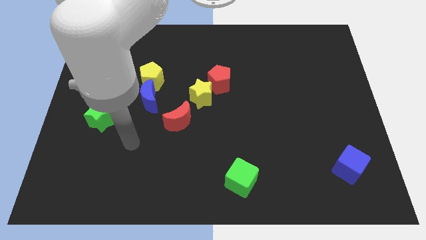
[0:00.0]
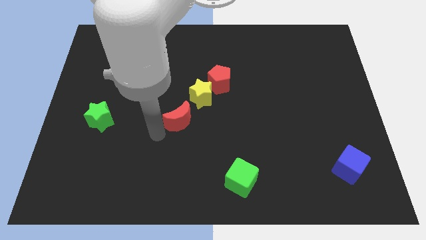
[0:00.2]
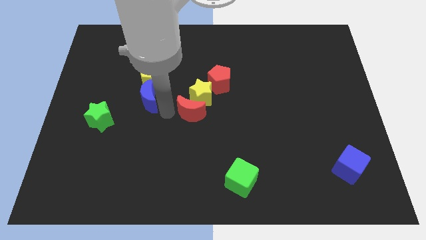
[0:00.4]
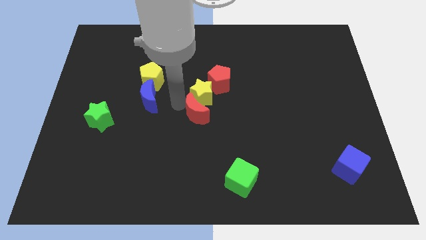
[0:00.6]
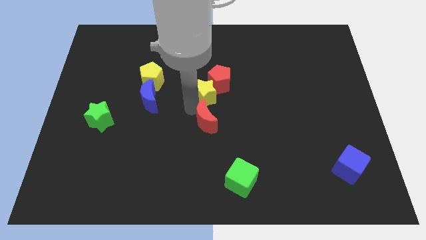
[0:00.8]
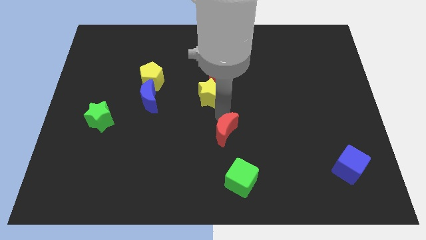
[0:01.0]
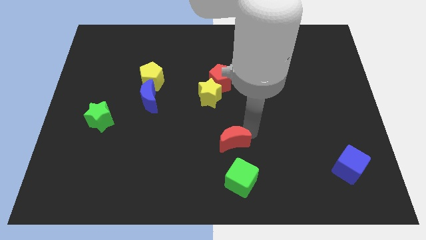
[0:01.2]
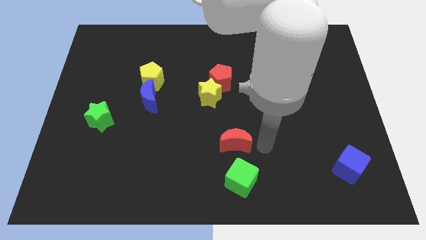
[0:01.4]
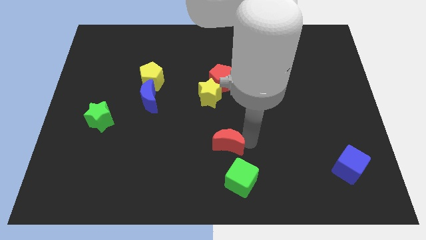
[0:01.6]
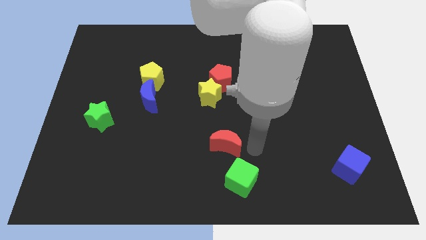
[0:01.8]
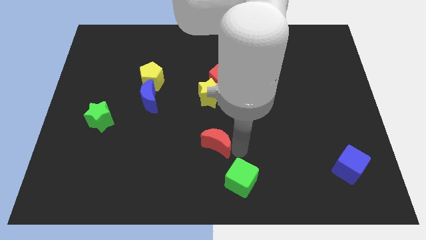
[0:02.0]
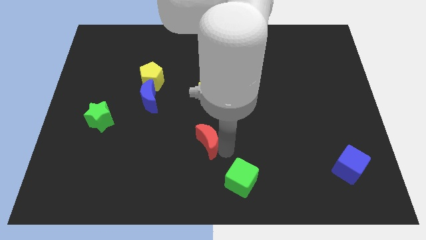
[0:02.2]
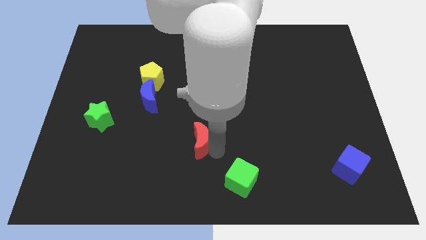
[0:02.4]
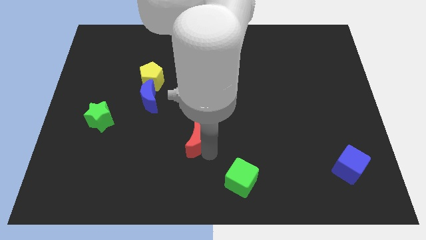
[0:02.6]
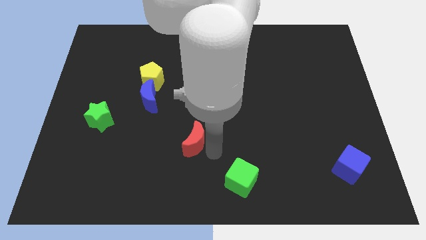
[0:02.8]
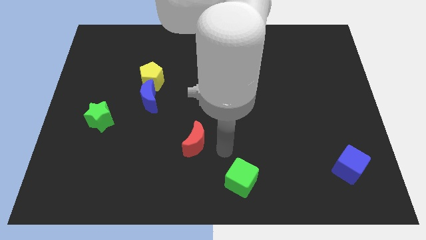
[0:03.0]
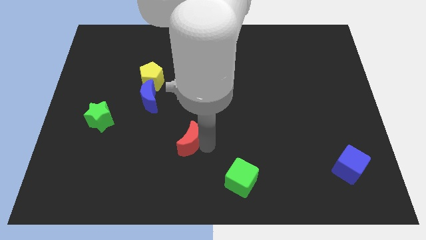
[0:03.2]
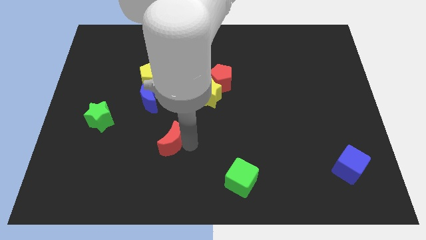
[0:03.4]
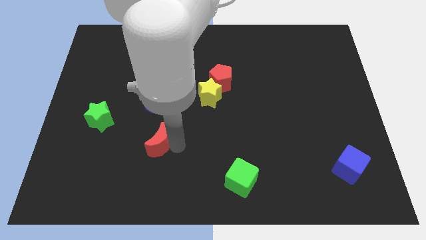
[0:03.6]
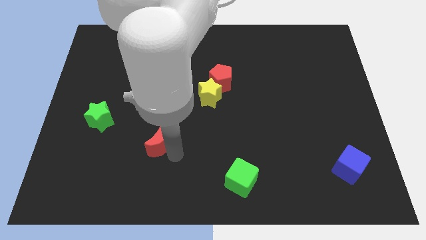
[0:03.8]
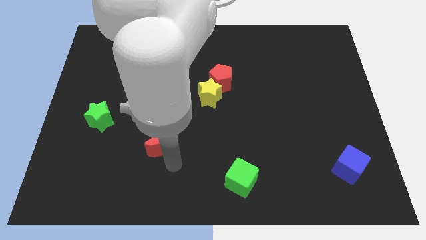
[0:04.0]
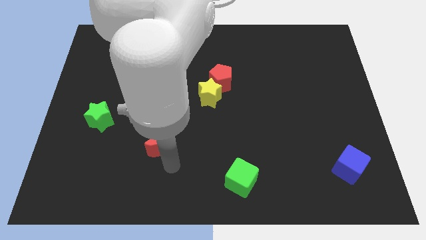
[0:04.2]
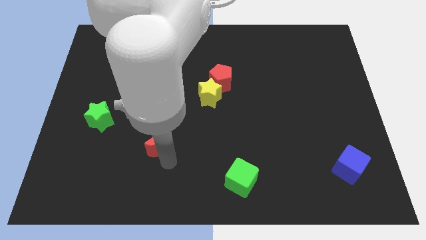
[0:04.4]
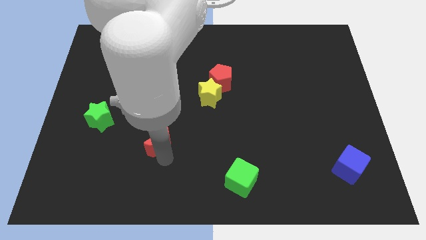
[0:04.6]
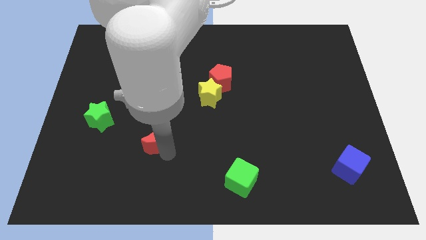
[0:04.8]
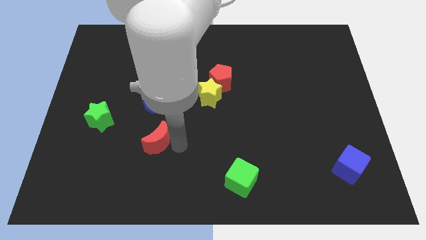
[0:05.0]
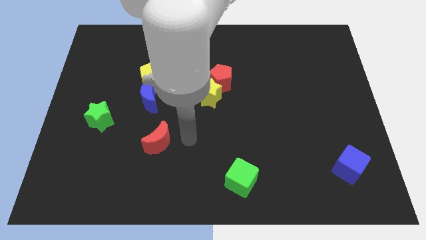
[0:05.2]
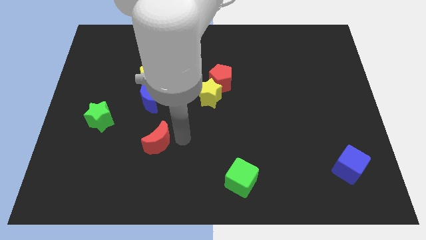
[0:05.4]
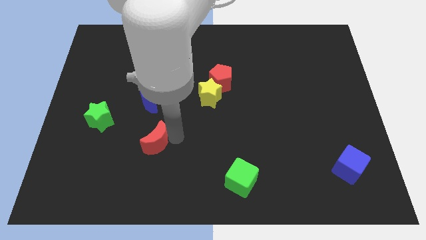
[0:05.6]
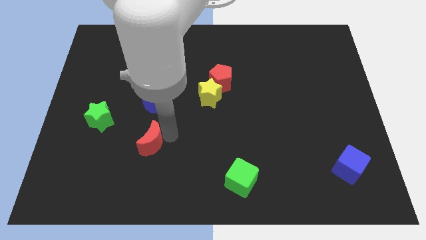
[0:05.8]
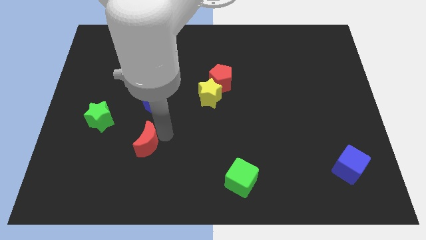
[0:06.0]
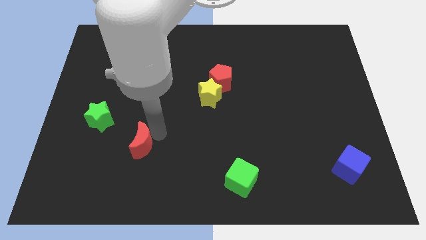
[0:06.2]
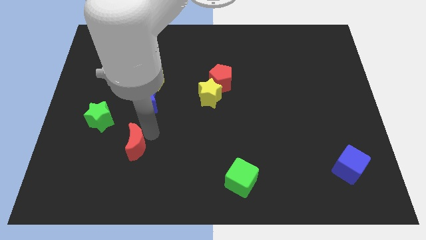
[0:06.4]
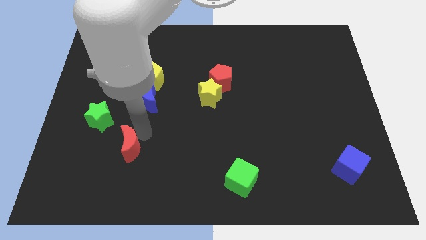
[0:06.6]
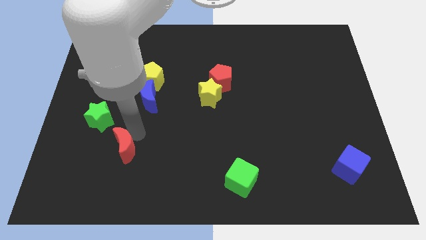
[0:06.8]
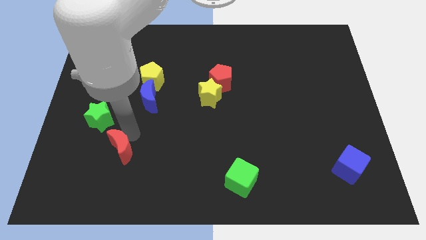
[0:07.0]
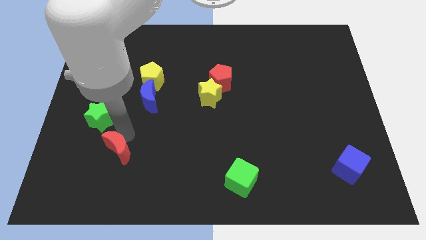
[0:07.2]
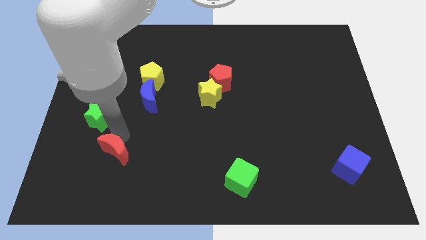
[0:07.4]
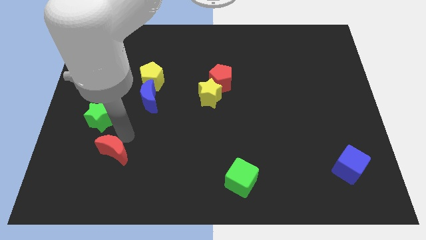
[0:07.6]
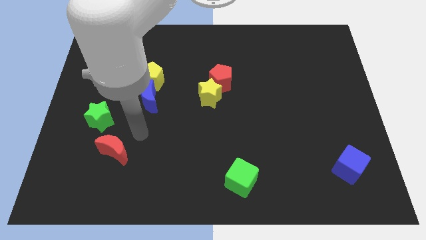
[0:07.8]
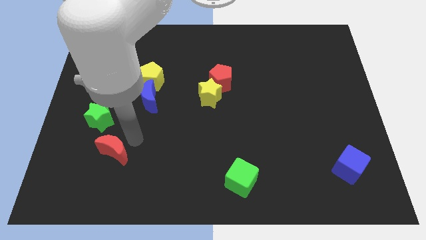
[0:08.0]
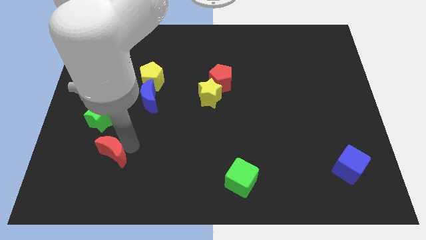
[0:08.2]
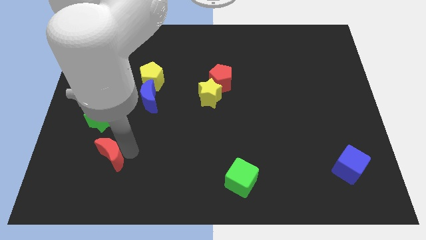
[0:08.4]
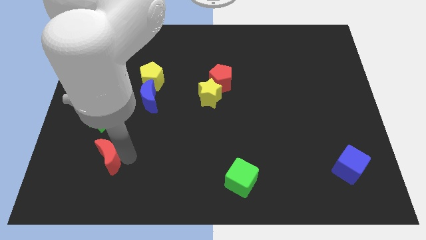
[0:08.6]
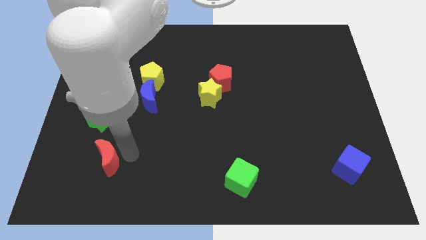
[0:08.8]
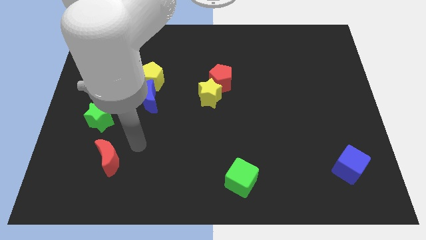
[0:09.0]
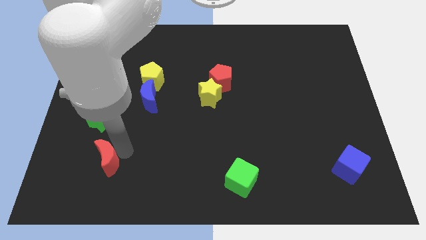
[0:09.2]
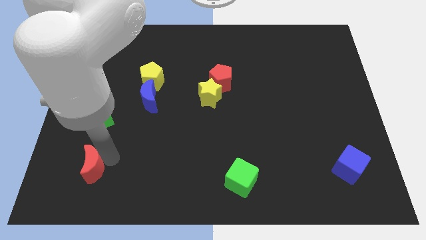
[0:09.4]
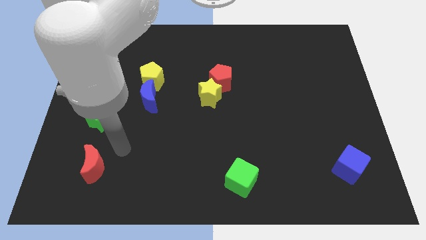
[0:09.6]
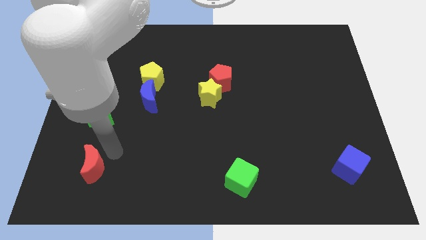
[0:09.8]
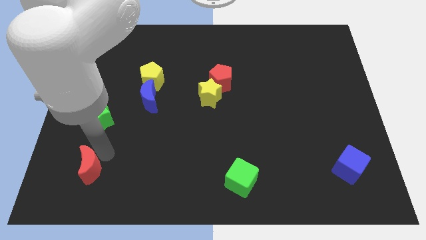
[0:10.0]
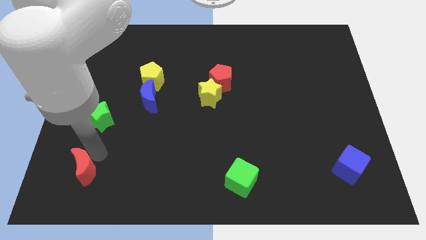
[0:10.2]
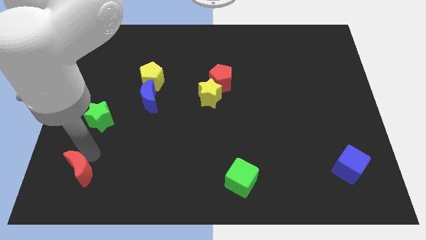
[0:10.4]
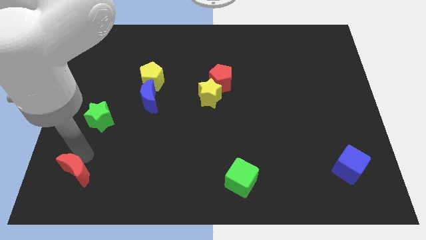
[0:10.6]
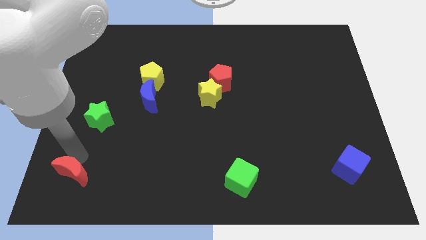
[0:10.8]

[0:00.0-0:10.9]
put the red moon to the bottom left corner

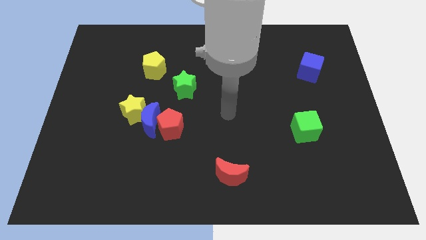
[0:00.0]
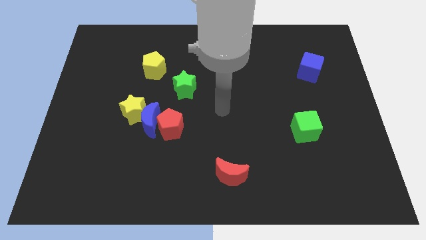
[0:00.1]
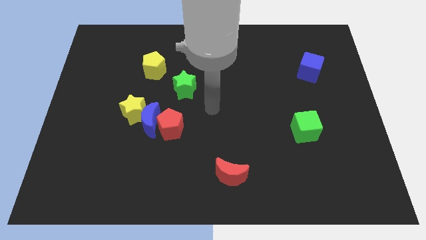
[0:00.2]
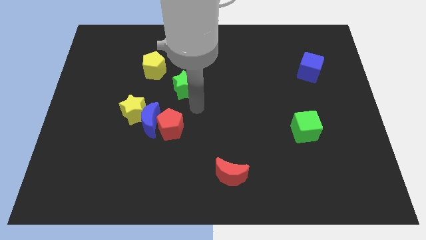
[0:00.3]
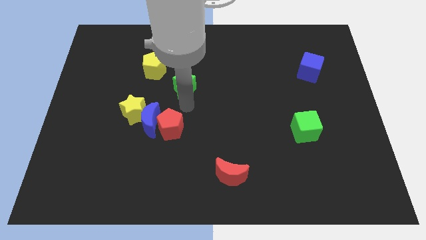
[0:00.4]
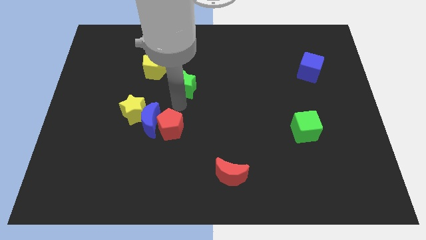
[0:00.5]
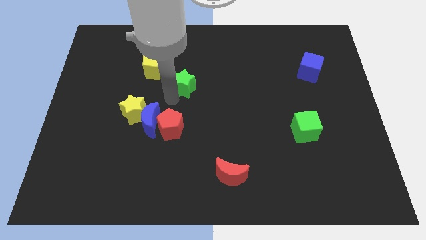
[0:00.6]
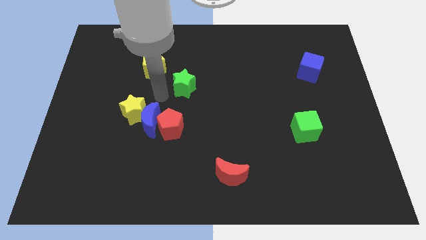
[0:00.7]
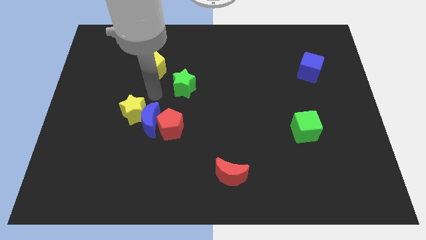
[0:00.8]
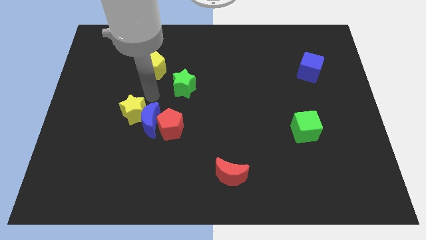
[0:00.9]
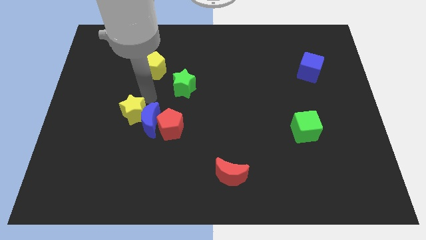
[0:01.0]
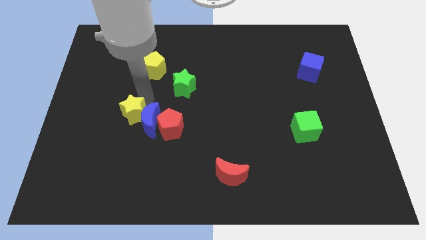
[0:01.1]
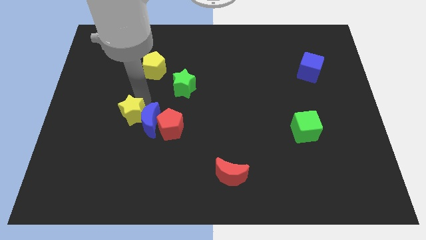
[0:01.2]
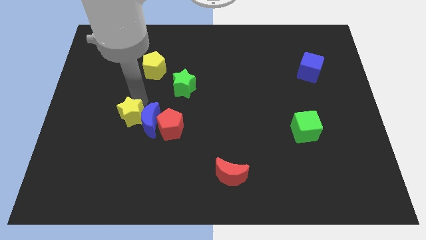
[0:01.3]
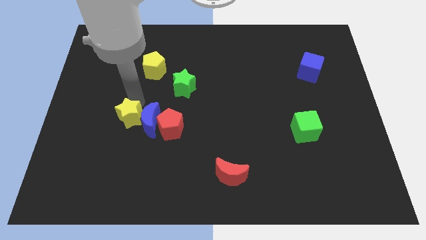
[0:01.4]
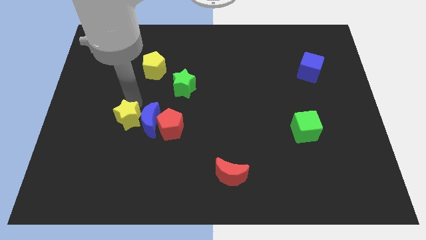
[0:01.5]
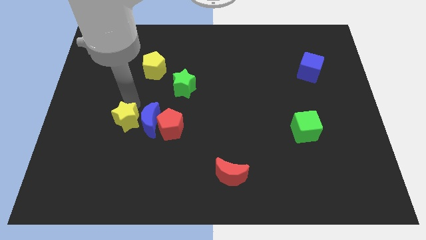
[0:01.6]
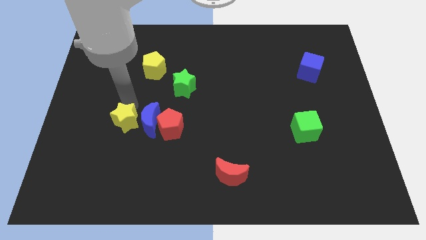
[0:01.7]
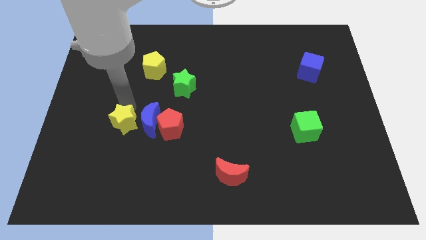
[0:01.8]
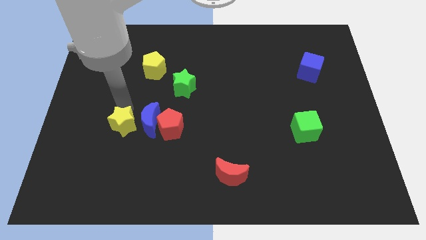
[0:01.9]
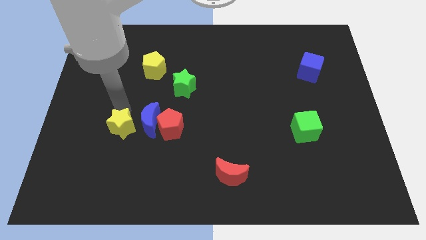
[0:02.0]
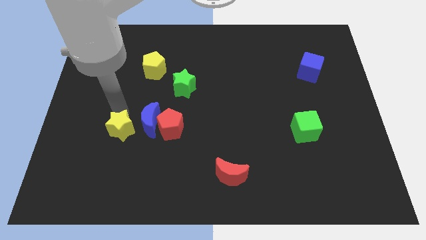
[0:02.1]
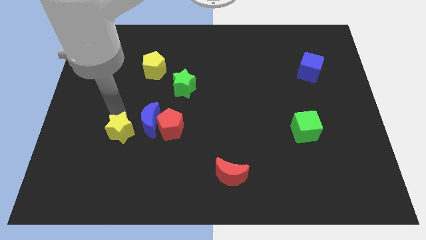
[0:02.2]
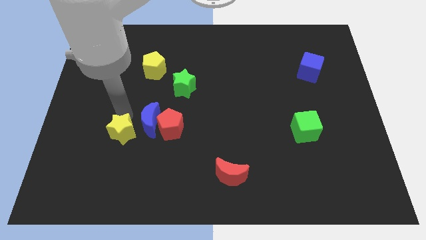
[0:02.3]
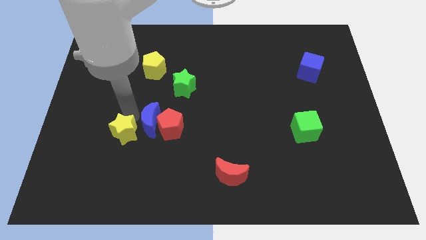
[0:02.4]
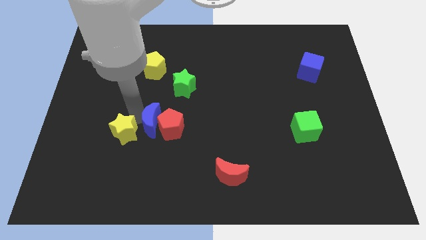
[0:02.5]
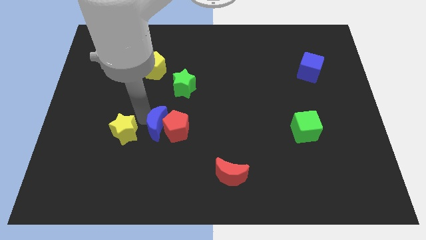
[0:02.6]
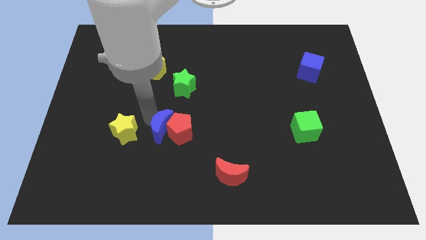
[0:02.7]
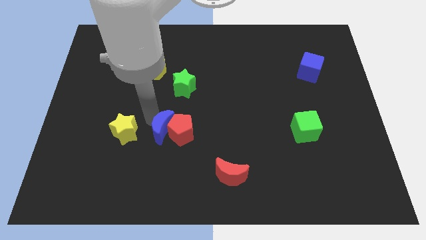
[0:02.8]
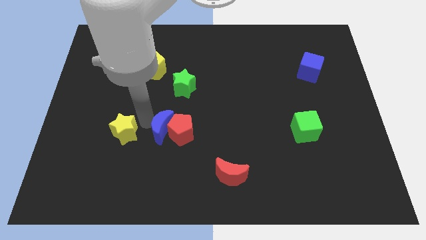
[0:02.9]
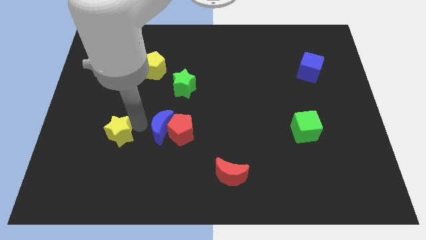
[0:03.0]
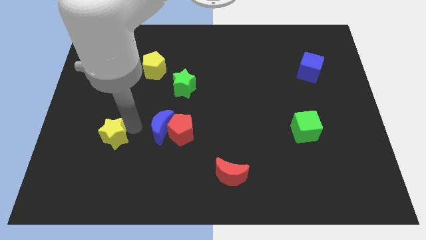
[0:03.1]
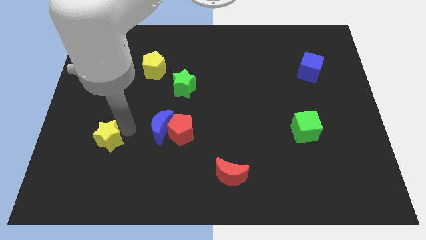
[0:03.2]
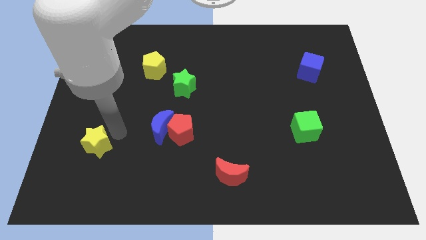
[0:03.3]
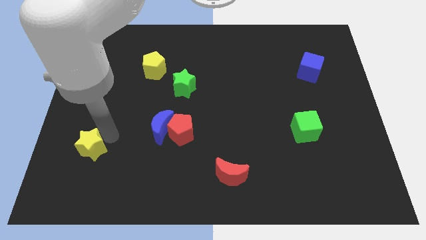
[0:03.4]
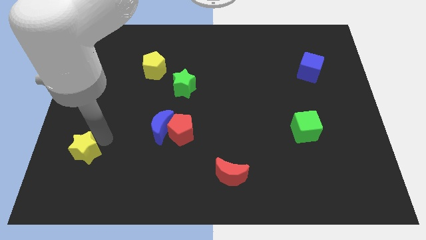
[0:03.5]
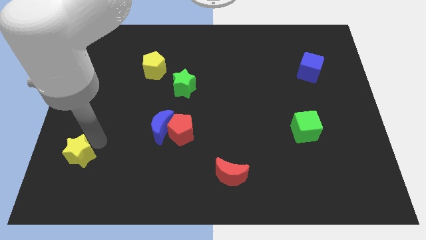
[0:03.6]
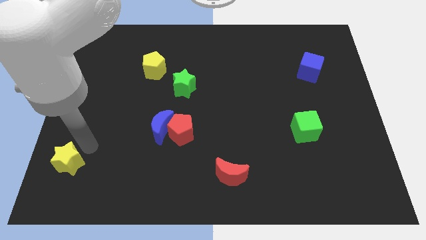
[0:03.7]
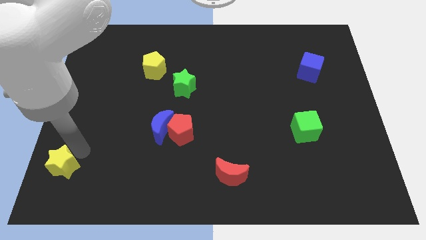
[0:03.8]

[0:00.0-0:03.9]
slide the yellow star to the lower left corner
